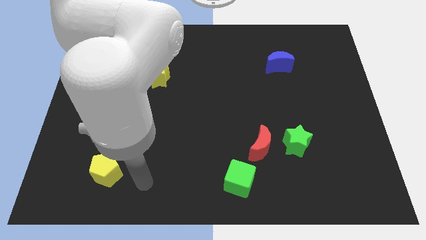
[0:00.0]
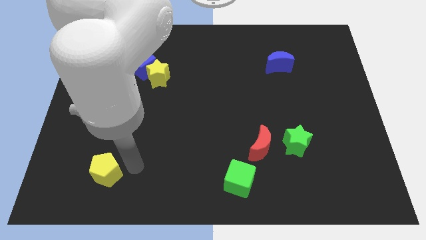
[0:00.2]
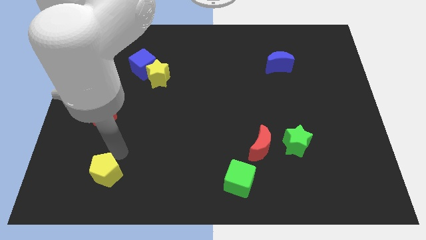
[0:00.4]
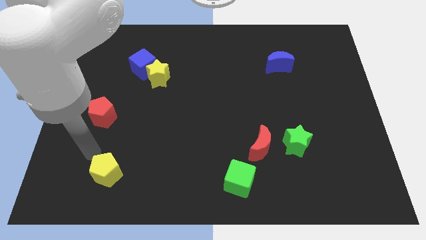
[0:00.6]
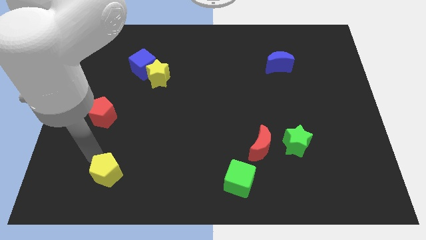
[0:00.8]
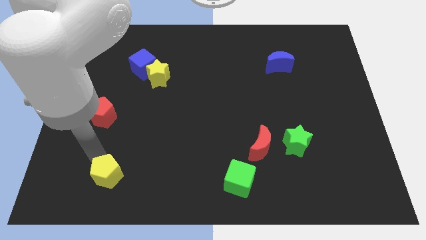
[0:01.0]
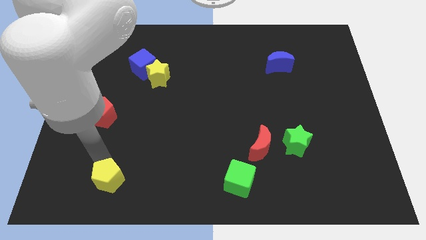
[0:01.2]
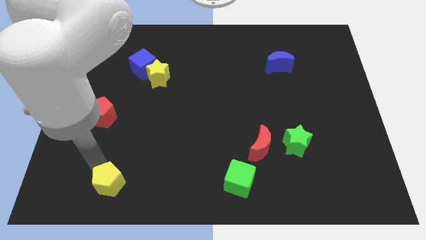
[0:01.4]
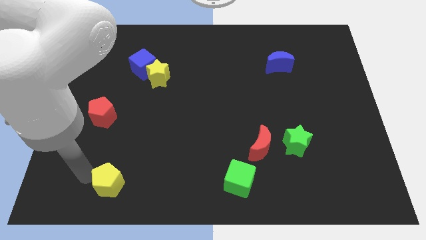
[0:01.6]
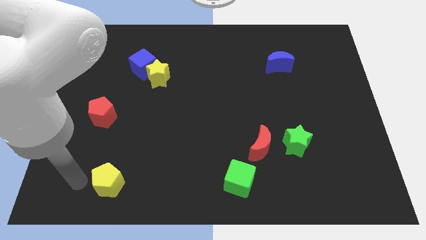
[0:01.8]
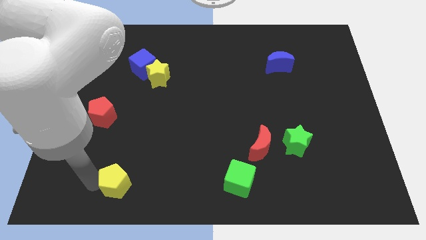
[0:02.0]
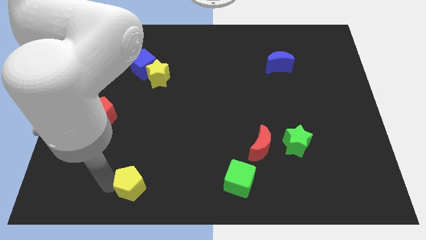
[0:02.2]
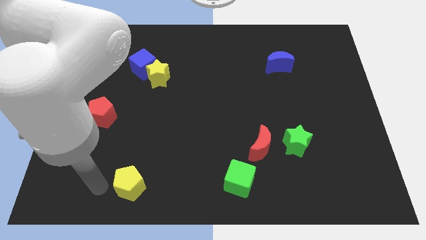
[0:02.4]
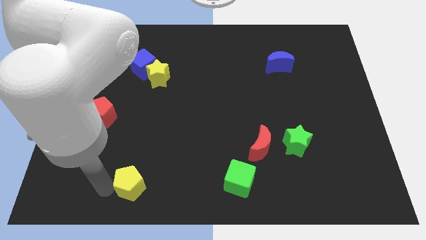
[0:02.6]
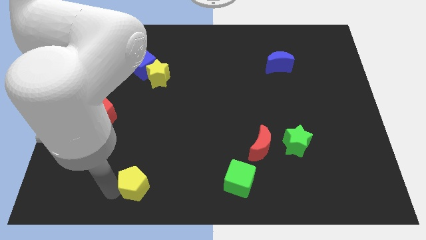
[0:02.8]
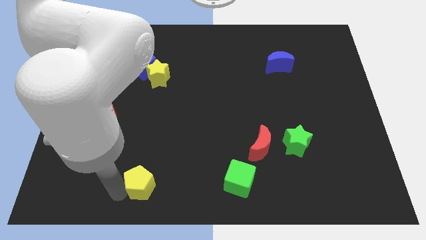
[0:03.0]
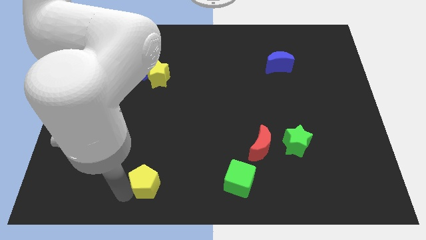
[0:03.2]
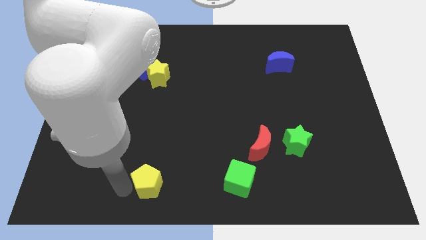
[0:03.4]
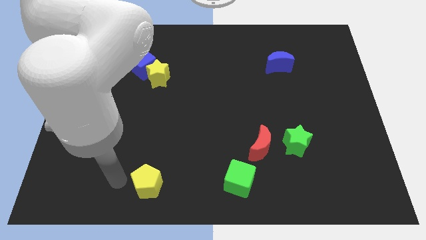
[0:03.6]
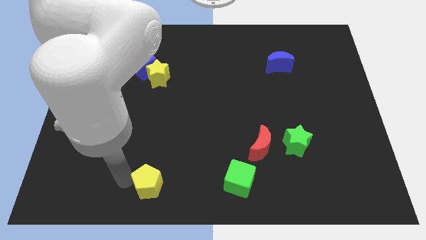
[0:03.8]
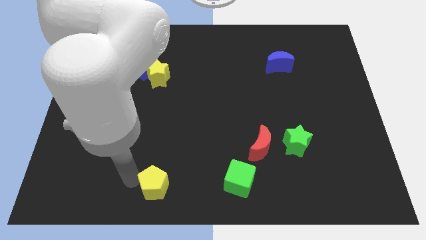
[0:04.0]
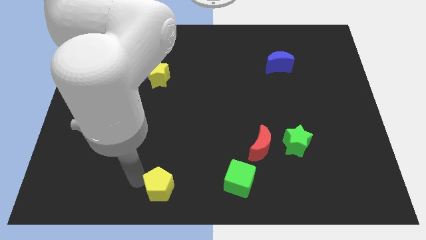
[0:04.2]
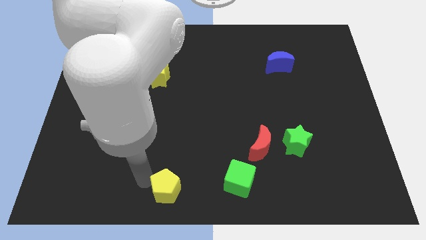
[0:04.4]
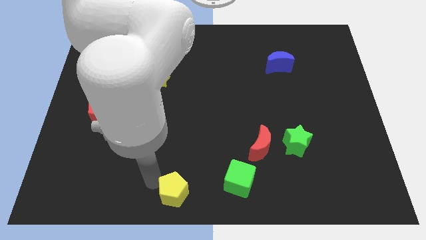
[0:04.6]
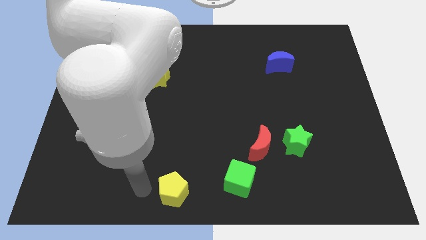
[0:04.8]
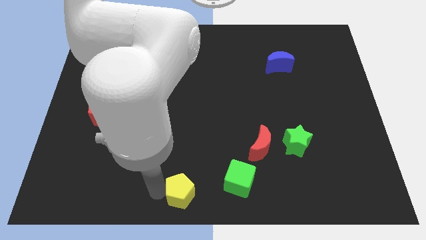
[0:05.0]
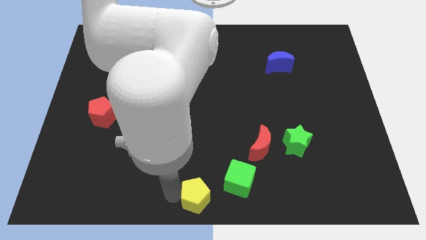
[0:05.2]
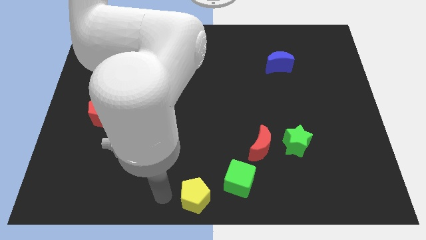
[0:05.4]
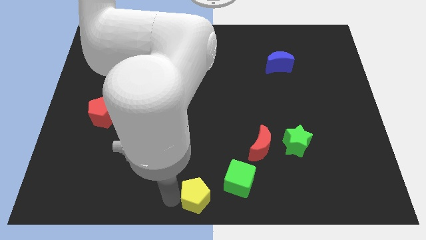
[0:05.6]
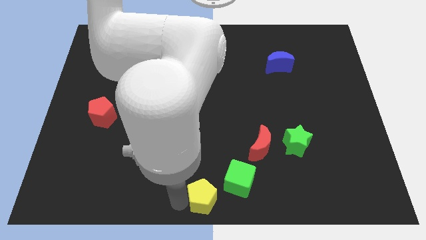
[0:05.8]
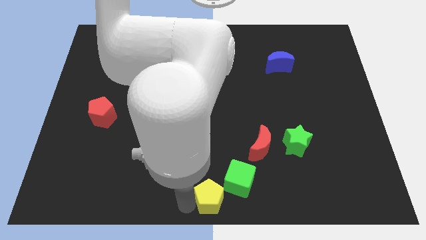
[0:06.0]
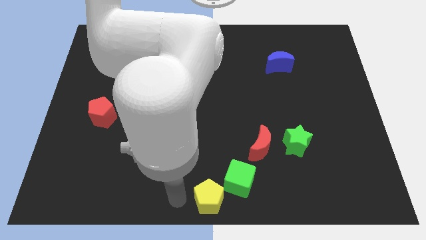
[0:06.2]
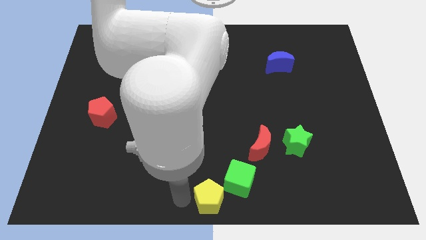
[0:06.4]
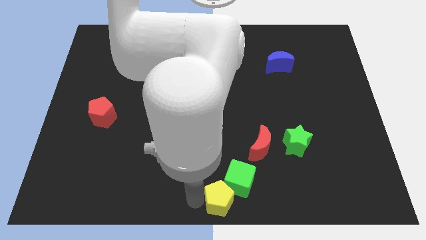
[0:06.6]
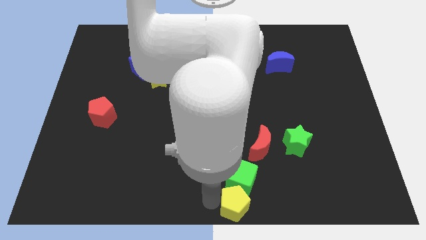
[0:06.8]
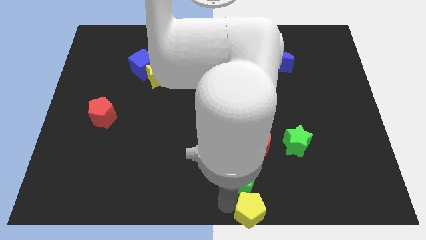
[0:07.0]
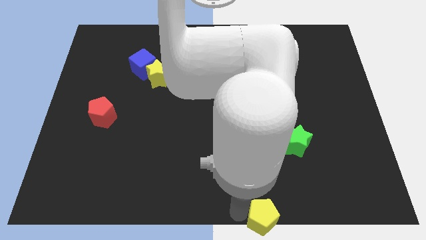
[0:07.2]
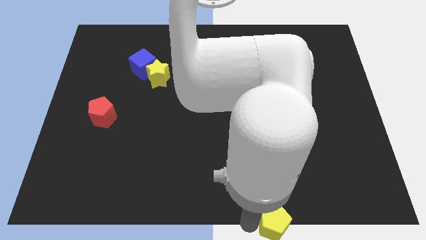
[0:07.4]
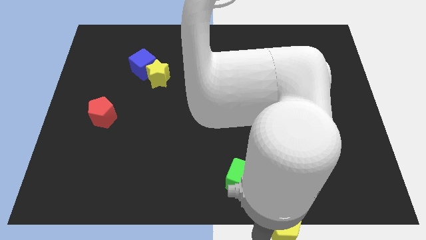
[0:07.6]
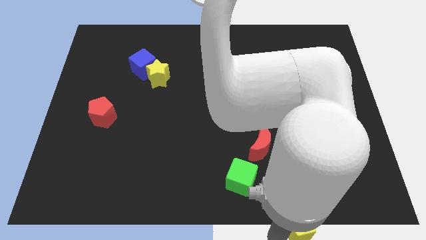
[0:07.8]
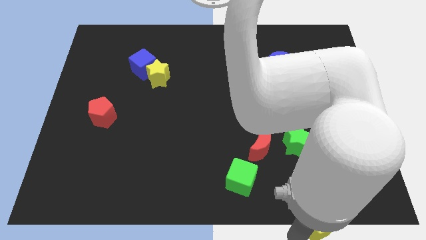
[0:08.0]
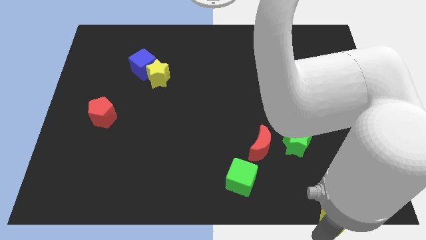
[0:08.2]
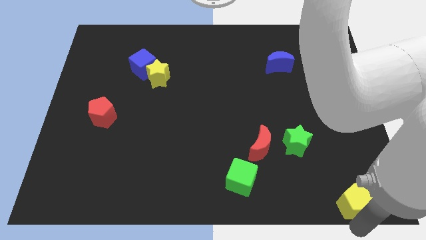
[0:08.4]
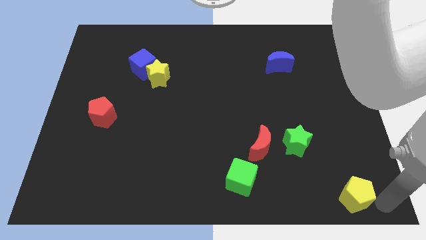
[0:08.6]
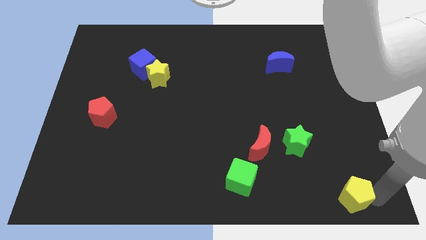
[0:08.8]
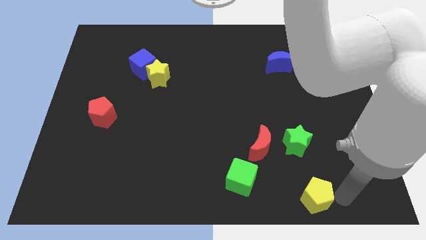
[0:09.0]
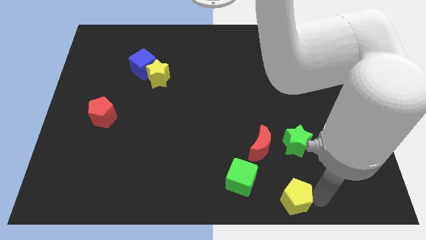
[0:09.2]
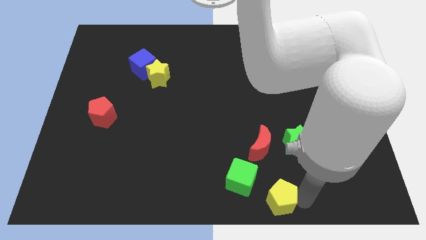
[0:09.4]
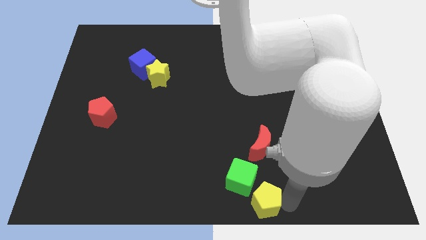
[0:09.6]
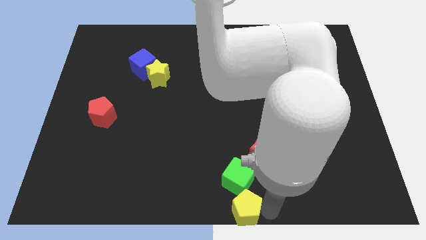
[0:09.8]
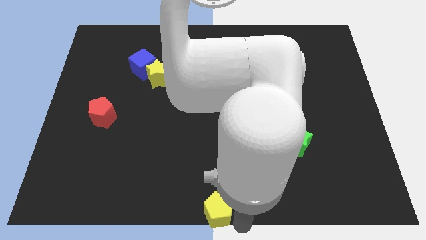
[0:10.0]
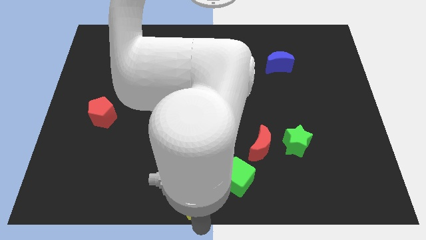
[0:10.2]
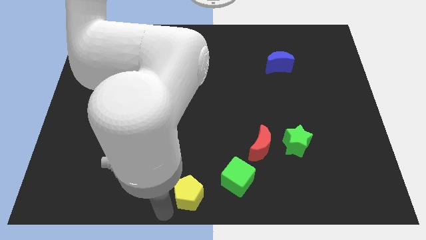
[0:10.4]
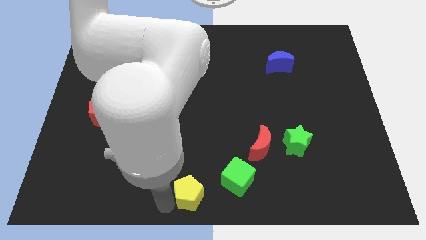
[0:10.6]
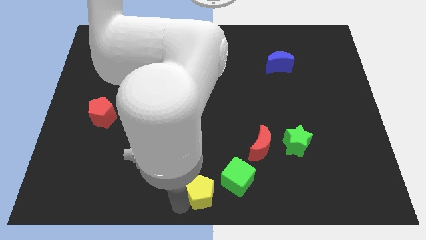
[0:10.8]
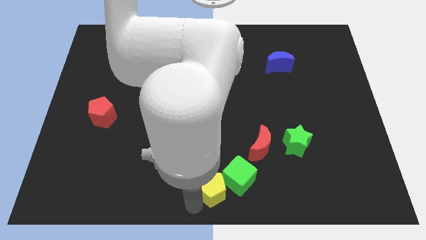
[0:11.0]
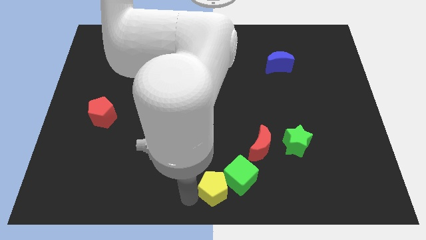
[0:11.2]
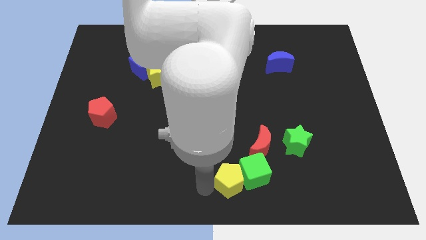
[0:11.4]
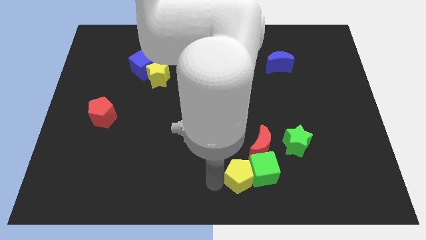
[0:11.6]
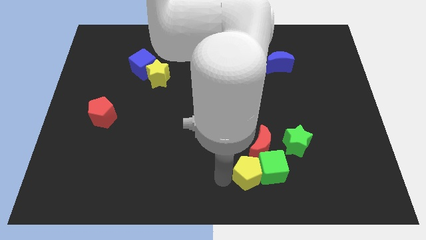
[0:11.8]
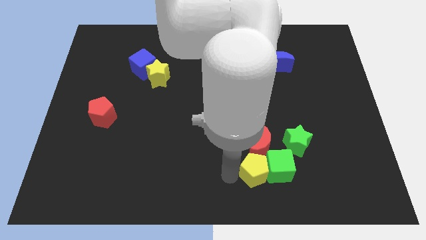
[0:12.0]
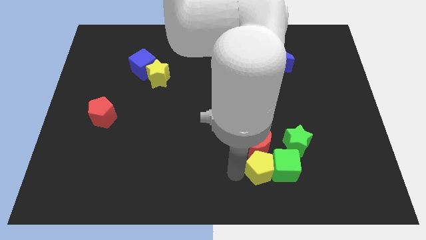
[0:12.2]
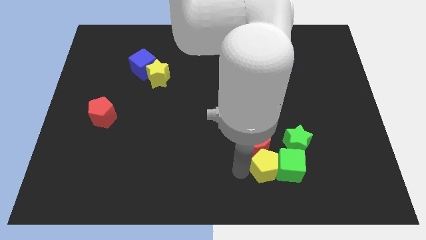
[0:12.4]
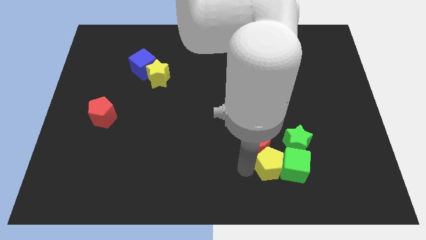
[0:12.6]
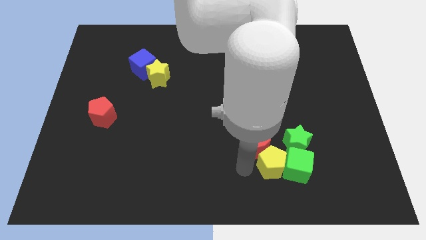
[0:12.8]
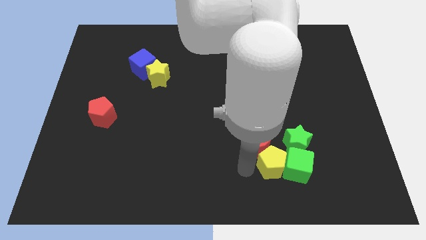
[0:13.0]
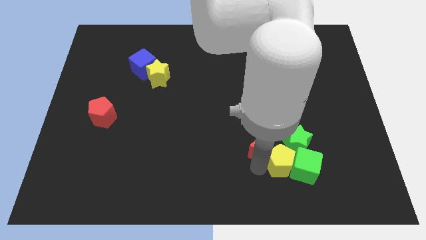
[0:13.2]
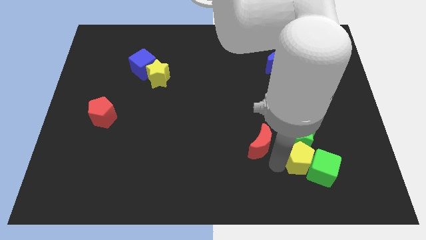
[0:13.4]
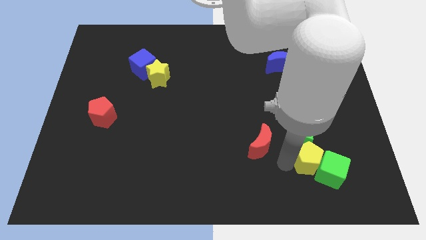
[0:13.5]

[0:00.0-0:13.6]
push the yellow pentagon diagonally down and to the right of the green star

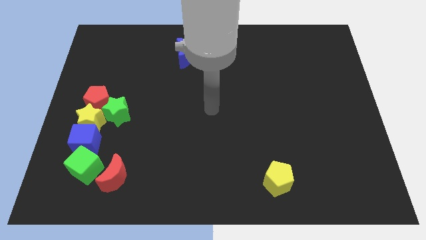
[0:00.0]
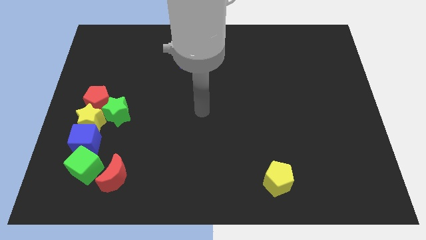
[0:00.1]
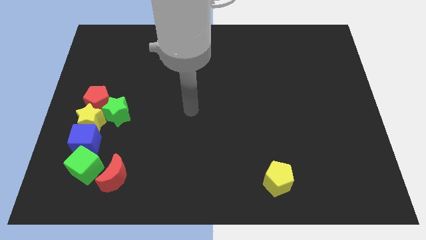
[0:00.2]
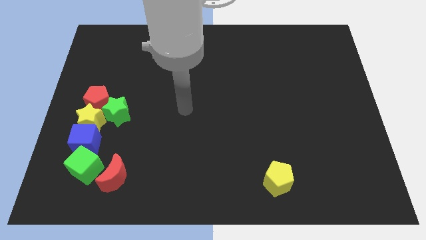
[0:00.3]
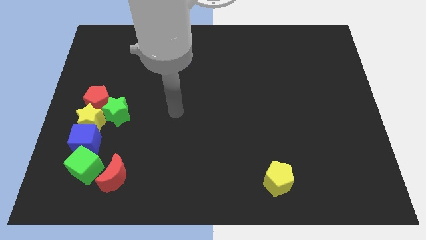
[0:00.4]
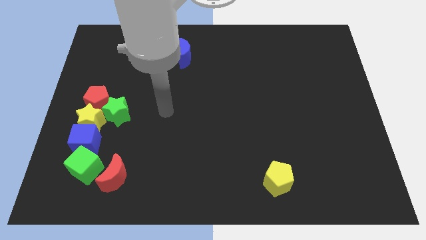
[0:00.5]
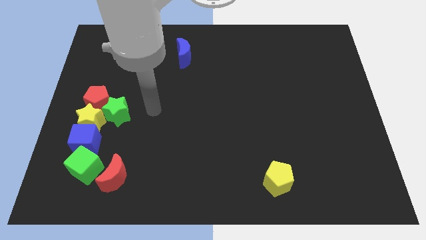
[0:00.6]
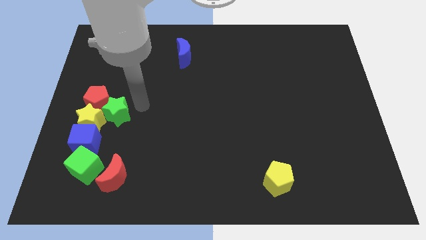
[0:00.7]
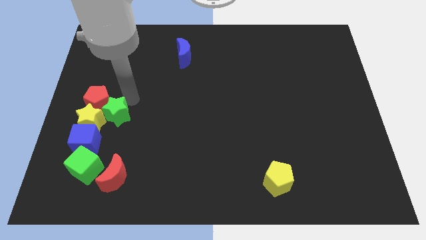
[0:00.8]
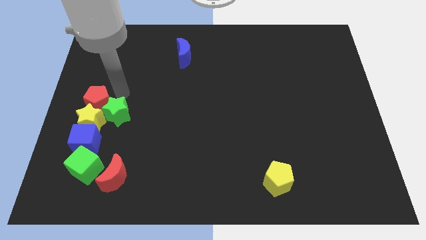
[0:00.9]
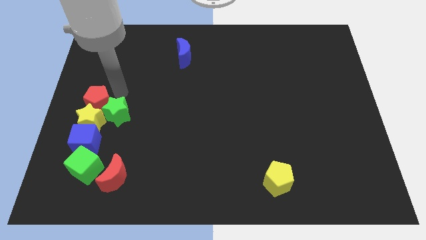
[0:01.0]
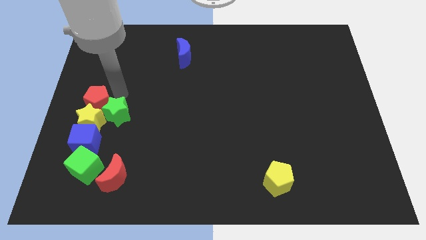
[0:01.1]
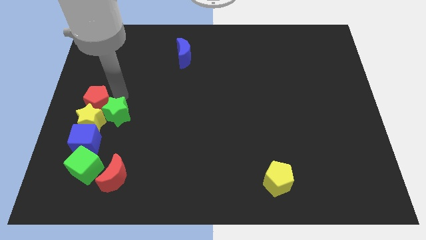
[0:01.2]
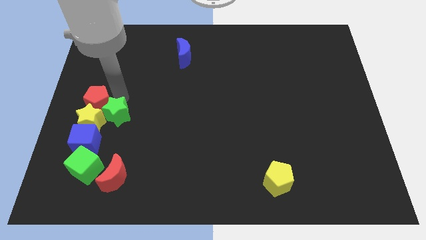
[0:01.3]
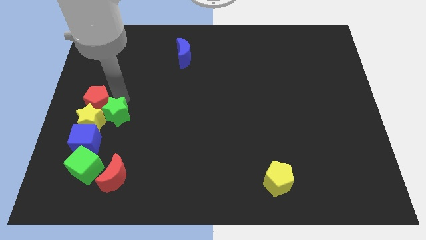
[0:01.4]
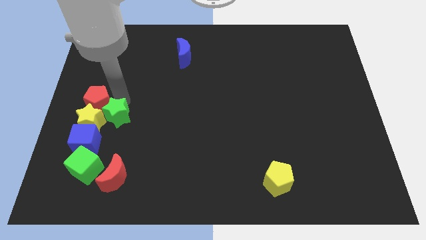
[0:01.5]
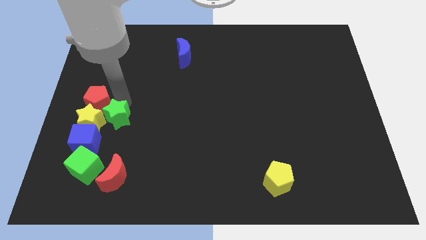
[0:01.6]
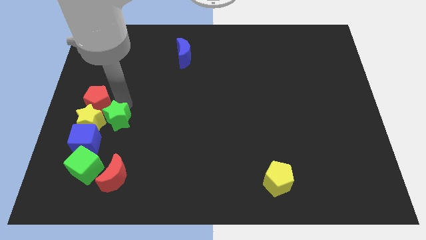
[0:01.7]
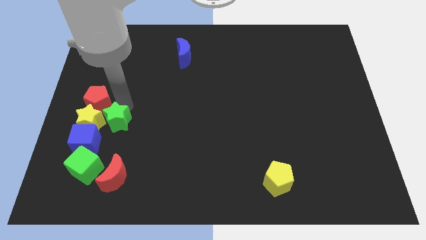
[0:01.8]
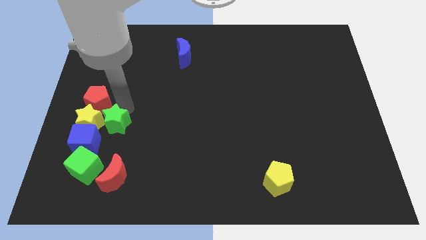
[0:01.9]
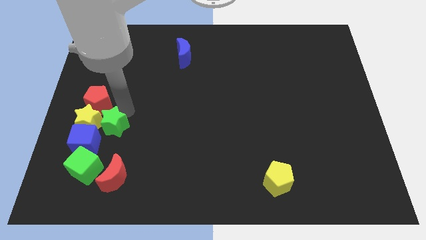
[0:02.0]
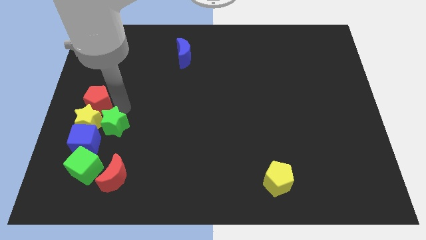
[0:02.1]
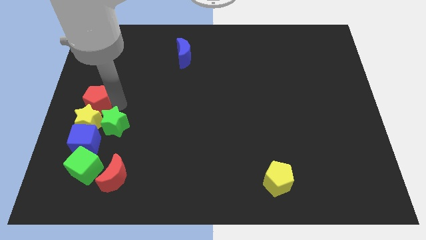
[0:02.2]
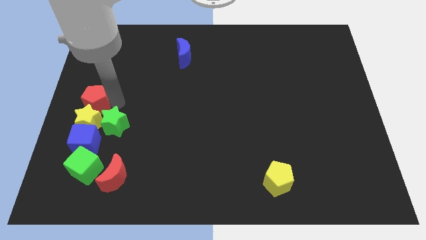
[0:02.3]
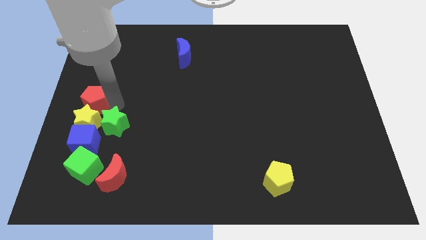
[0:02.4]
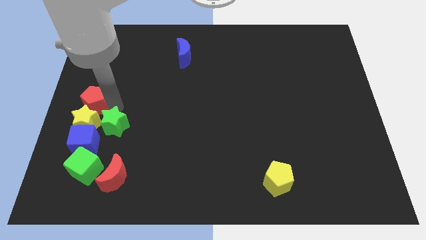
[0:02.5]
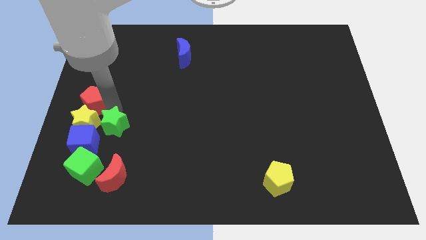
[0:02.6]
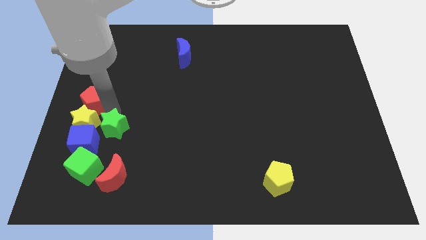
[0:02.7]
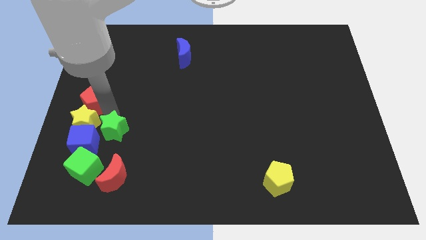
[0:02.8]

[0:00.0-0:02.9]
slide the green star to the top right of the green cube
